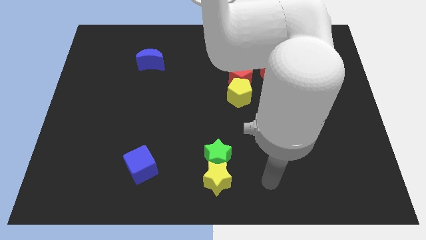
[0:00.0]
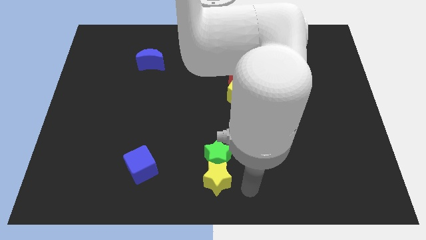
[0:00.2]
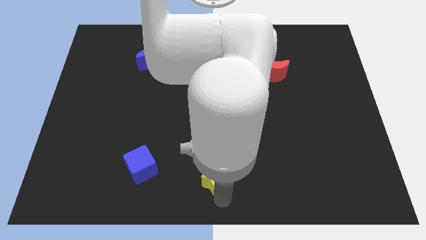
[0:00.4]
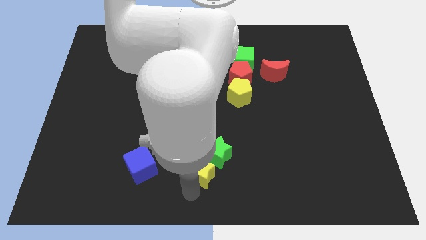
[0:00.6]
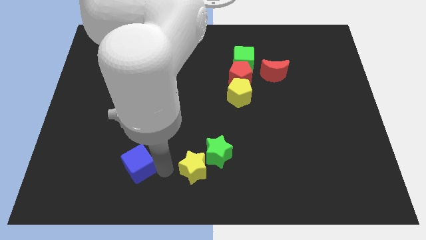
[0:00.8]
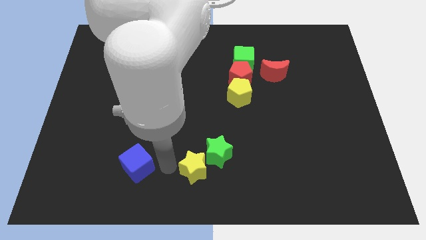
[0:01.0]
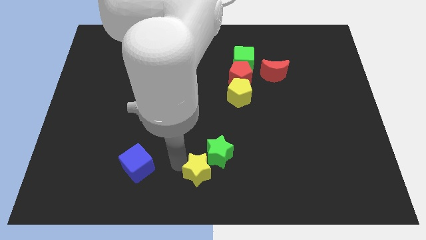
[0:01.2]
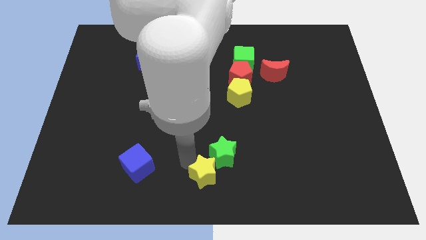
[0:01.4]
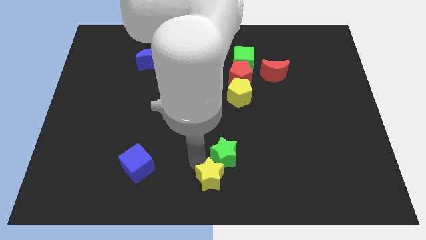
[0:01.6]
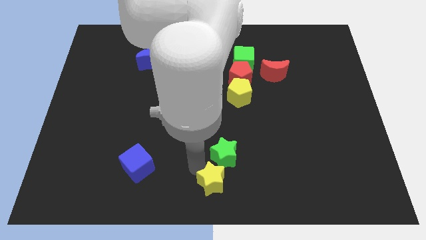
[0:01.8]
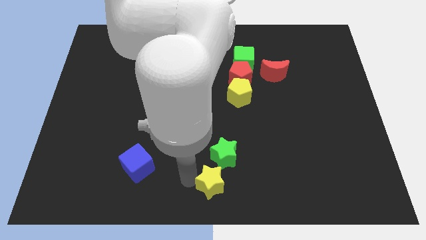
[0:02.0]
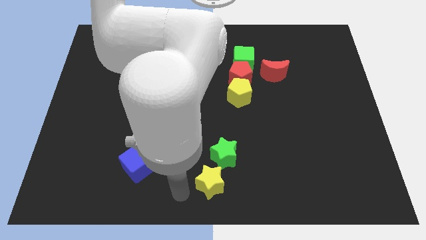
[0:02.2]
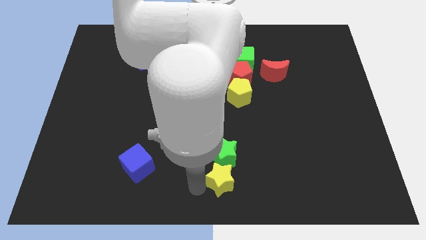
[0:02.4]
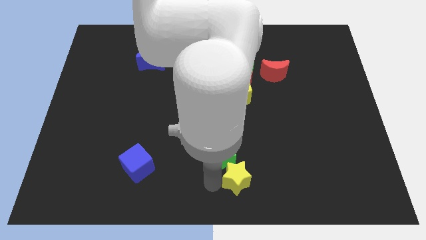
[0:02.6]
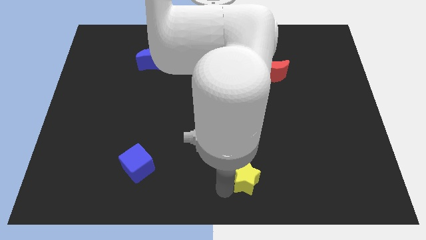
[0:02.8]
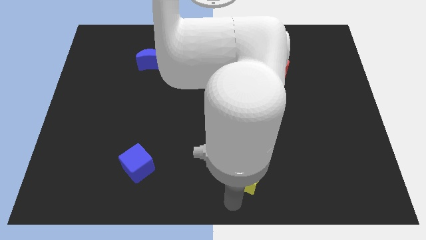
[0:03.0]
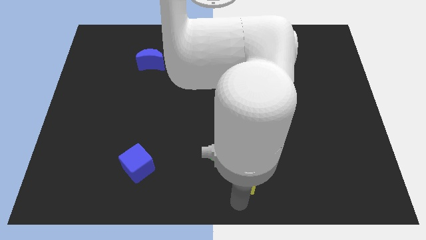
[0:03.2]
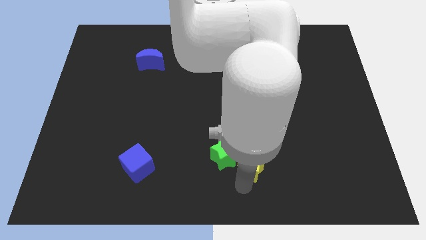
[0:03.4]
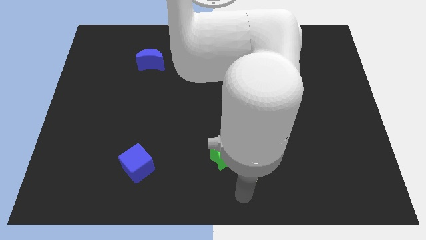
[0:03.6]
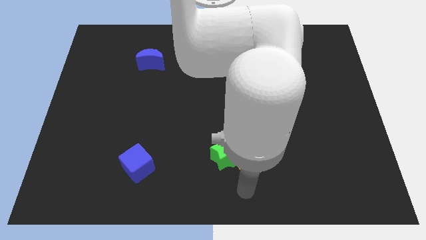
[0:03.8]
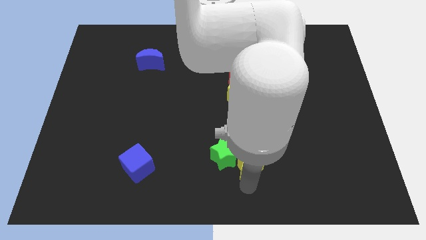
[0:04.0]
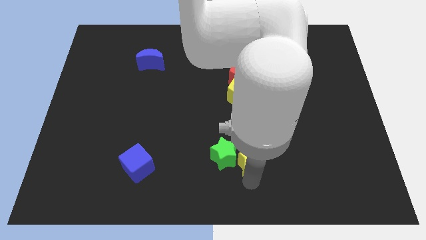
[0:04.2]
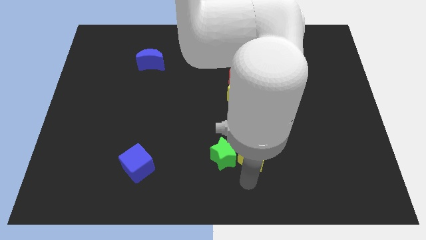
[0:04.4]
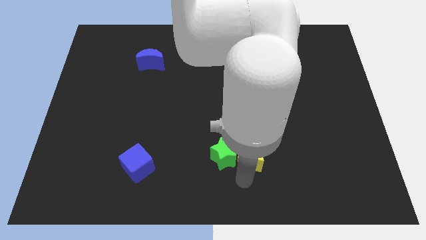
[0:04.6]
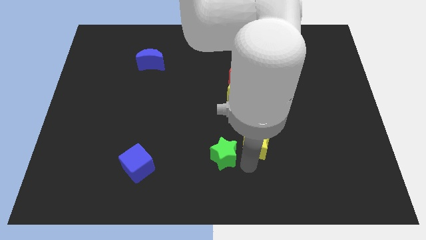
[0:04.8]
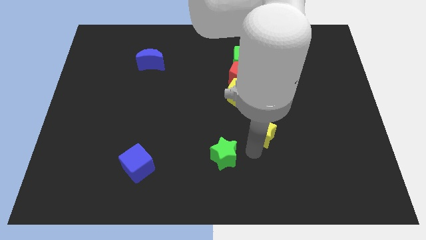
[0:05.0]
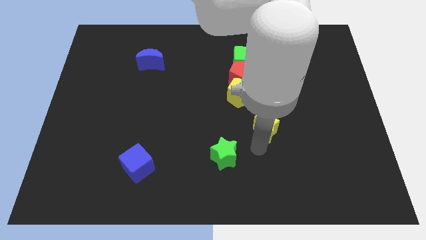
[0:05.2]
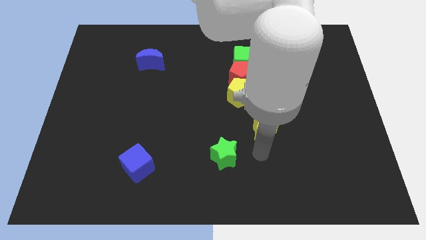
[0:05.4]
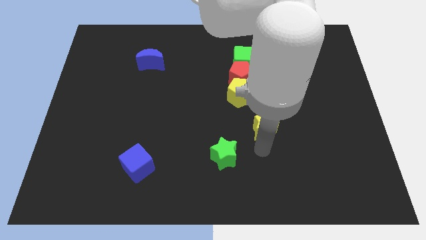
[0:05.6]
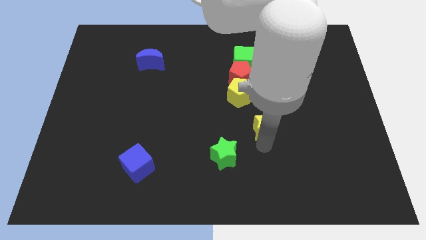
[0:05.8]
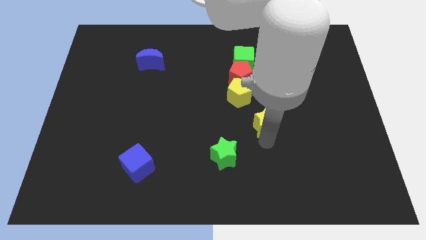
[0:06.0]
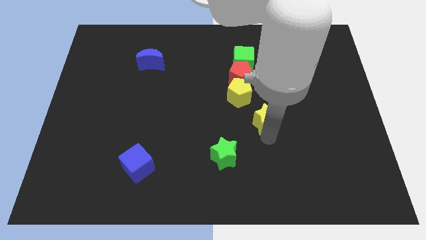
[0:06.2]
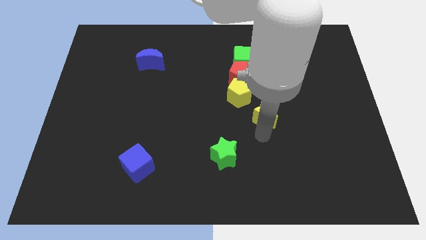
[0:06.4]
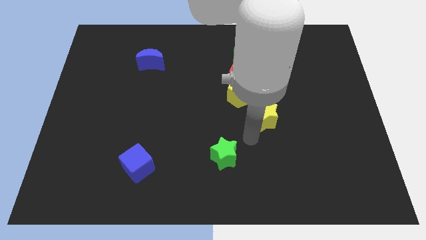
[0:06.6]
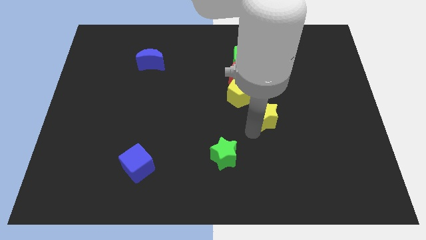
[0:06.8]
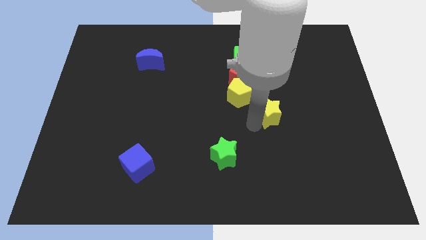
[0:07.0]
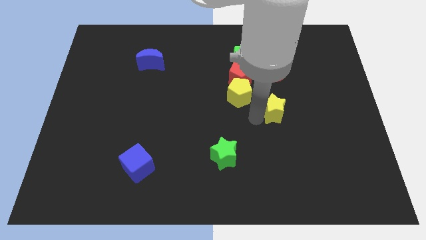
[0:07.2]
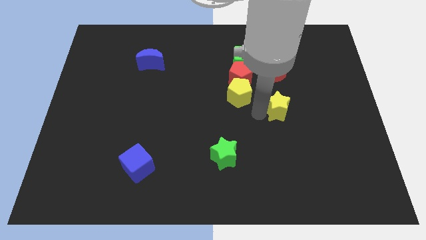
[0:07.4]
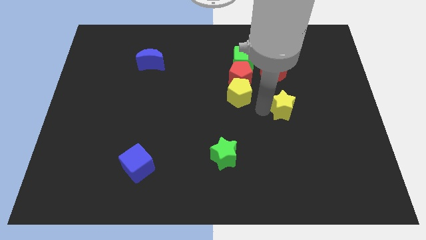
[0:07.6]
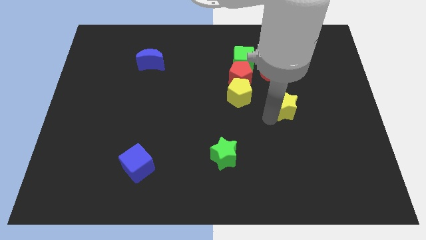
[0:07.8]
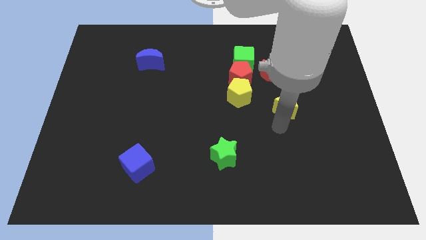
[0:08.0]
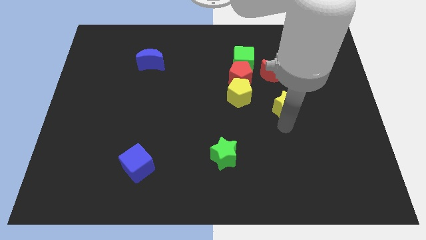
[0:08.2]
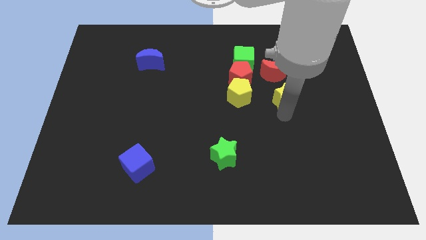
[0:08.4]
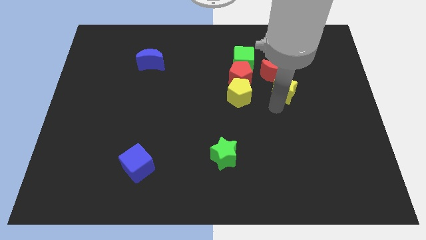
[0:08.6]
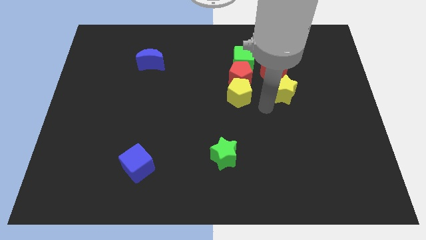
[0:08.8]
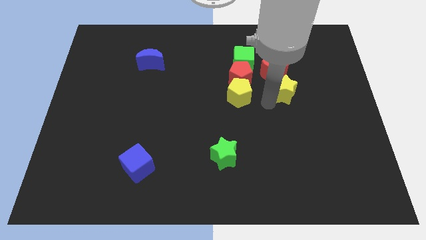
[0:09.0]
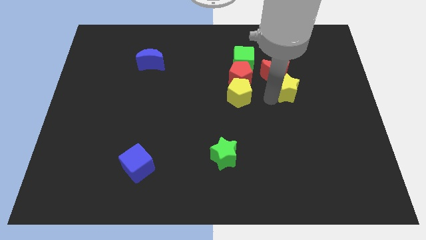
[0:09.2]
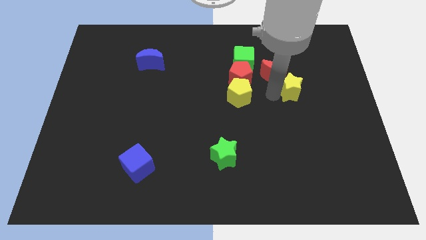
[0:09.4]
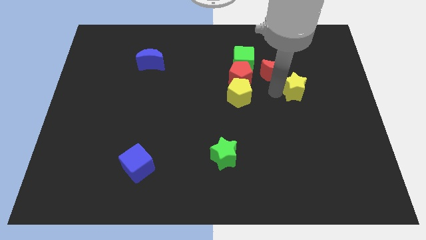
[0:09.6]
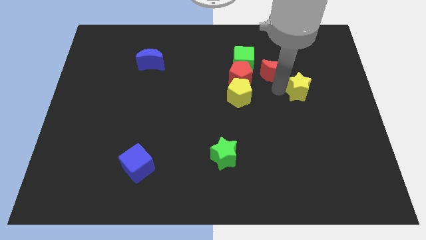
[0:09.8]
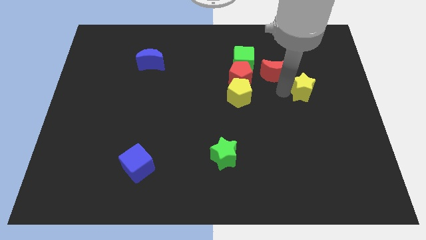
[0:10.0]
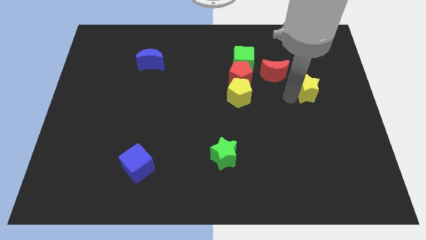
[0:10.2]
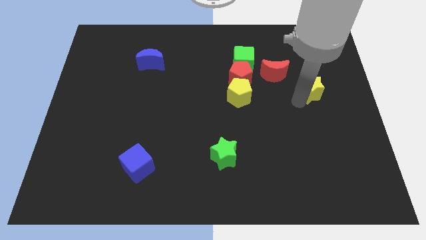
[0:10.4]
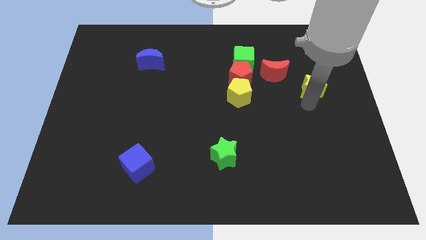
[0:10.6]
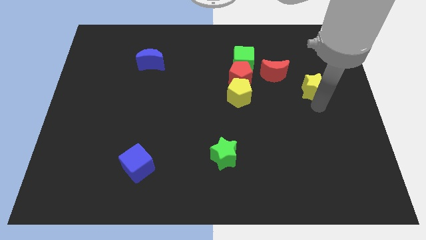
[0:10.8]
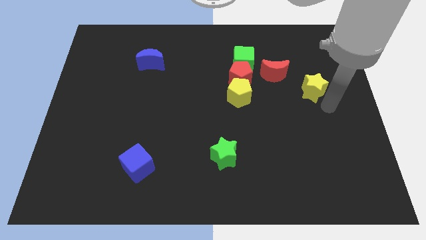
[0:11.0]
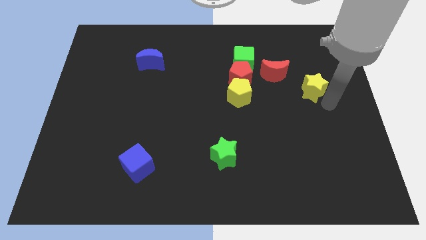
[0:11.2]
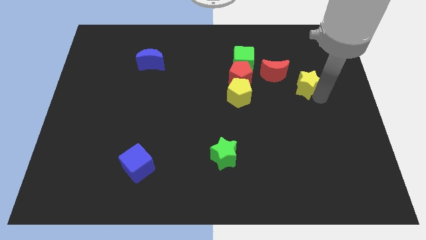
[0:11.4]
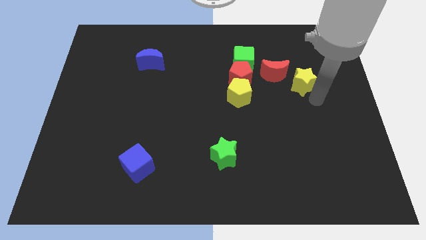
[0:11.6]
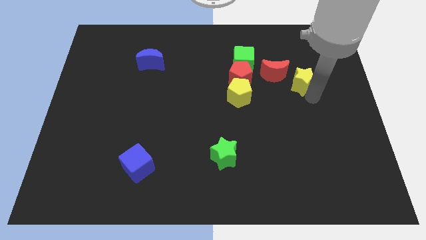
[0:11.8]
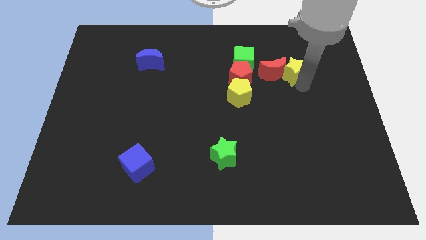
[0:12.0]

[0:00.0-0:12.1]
push the yellow star just right of the green cube

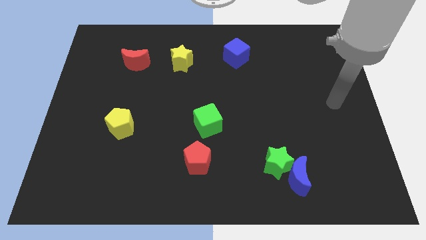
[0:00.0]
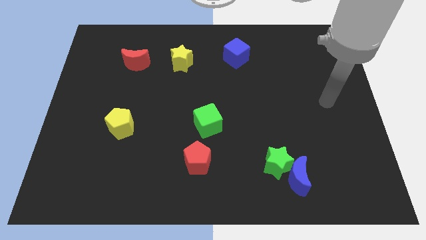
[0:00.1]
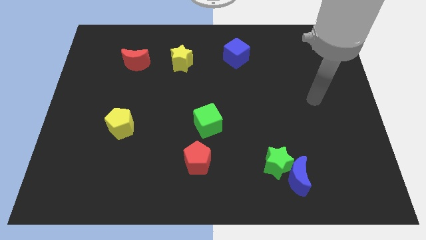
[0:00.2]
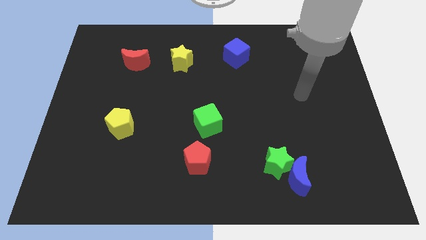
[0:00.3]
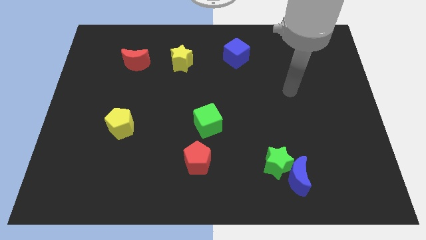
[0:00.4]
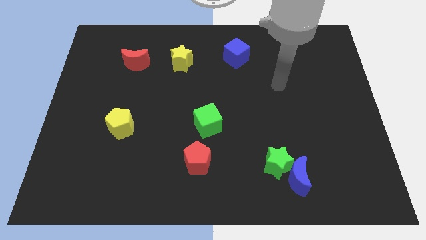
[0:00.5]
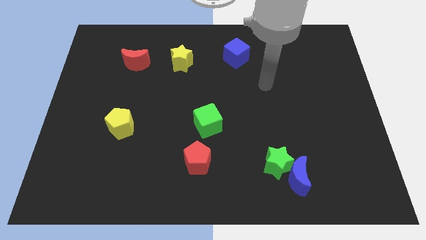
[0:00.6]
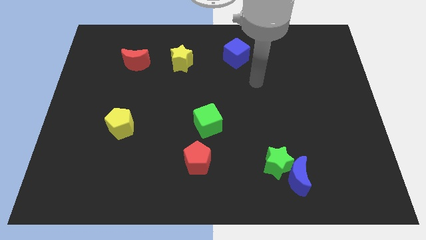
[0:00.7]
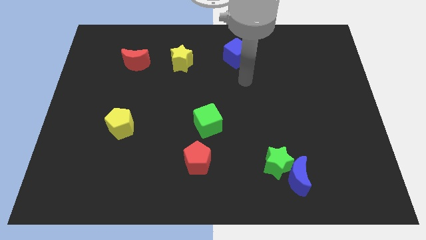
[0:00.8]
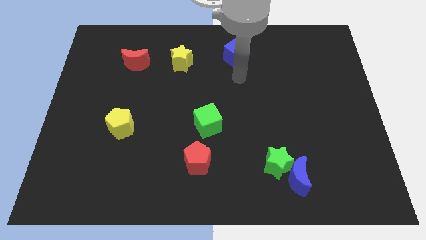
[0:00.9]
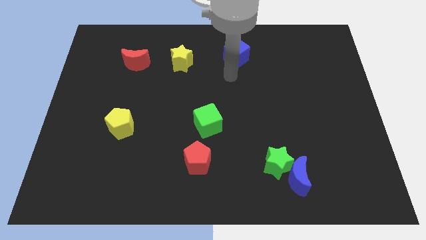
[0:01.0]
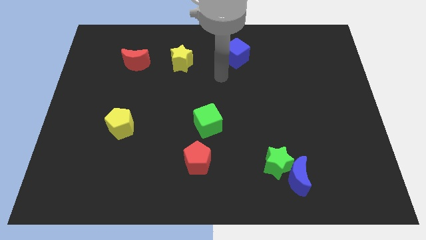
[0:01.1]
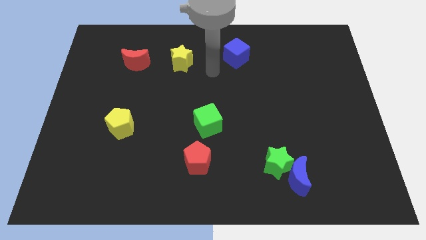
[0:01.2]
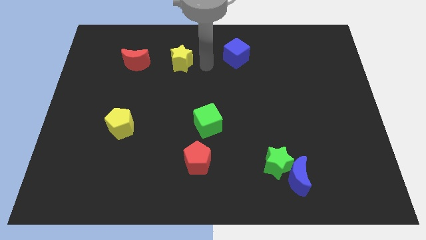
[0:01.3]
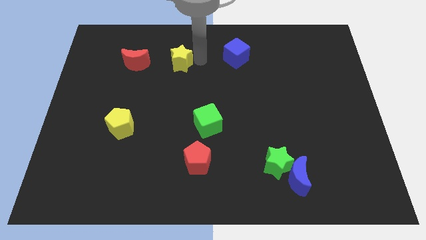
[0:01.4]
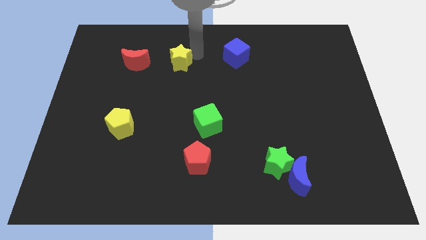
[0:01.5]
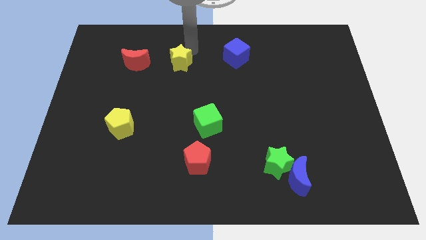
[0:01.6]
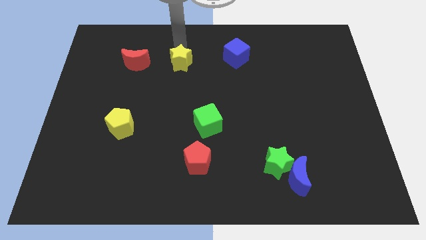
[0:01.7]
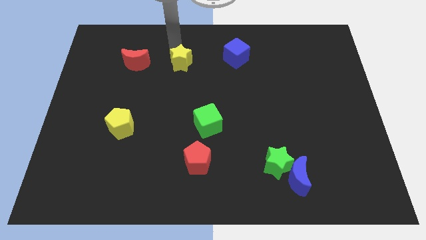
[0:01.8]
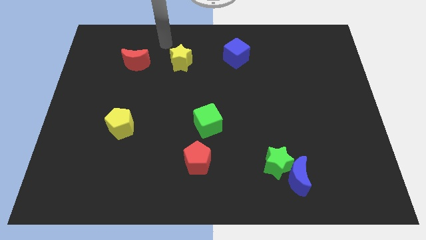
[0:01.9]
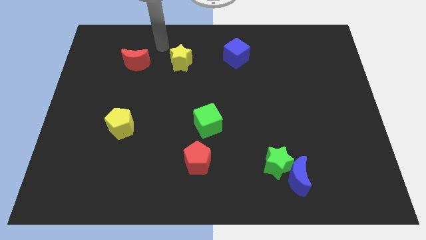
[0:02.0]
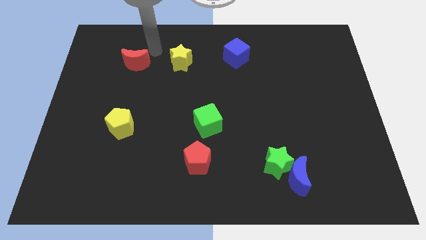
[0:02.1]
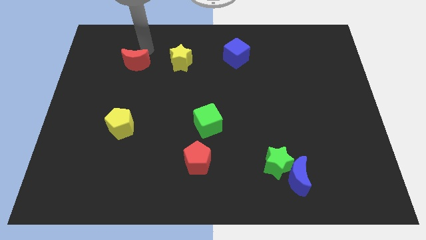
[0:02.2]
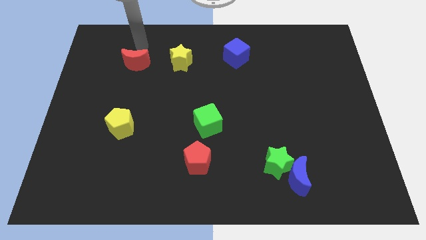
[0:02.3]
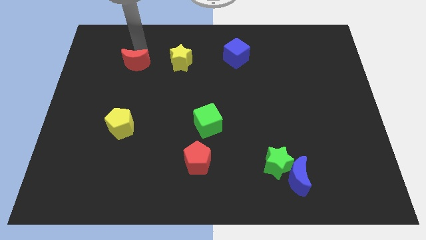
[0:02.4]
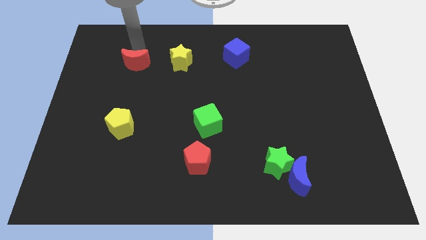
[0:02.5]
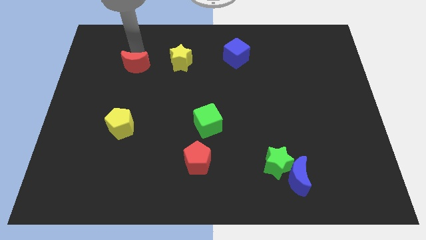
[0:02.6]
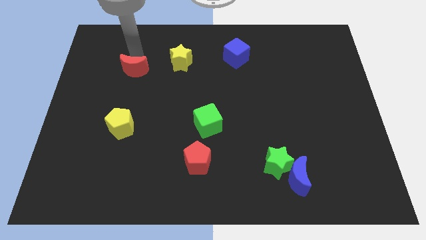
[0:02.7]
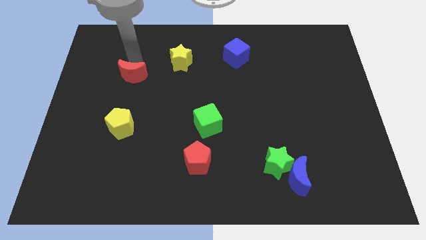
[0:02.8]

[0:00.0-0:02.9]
put the red moon above the yellow pentagon
